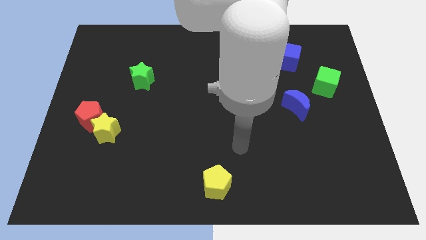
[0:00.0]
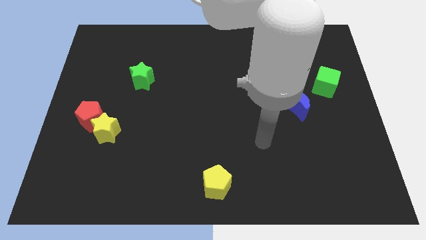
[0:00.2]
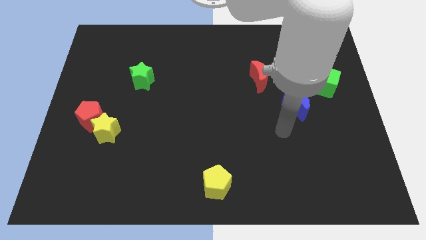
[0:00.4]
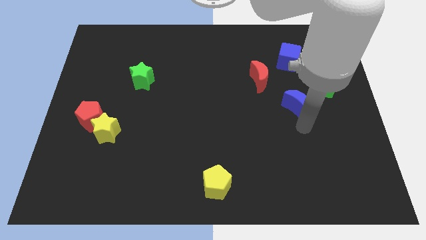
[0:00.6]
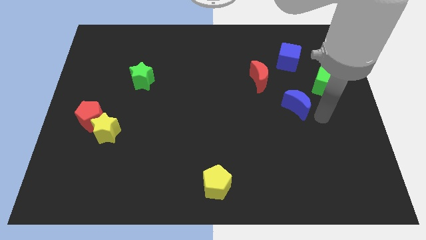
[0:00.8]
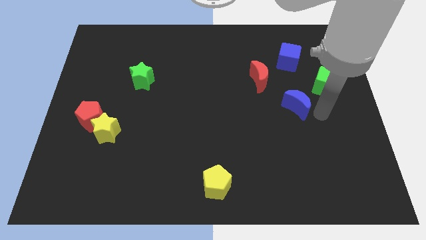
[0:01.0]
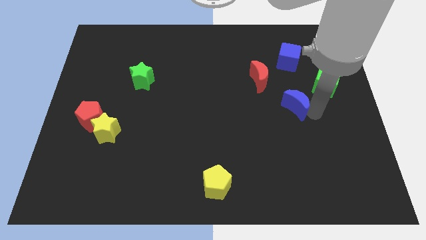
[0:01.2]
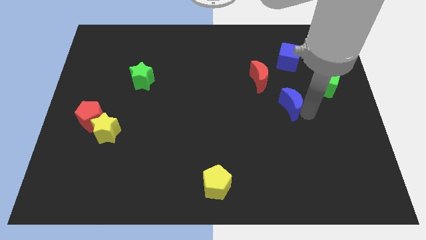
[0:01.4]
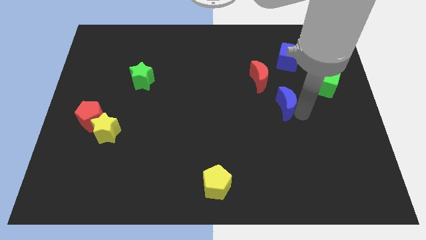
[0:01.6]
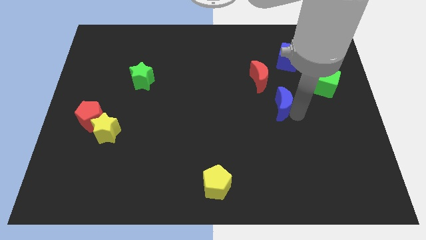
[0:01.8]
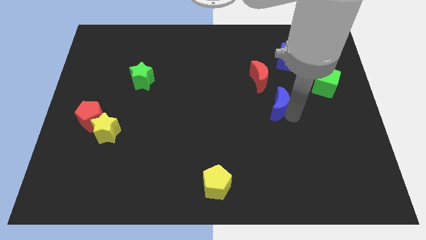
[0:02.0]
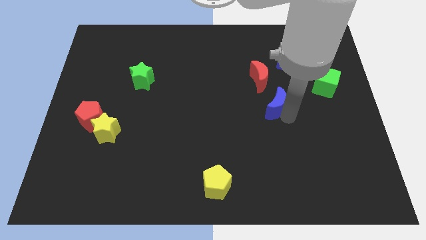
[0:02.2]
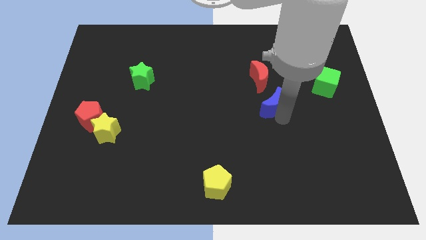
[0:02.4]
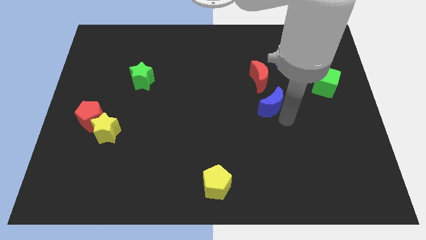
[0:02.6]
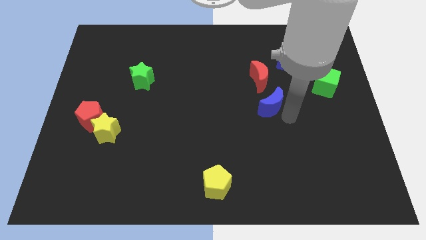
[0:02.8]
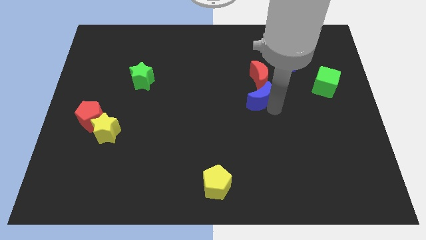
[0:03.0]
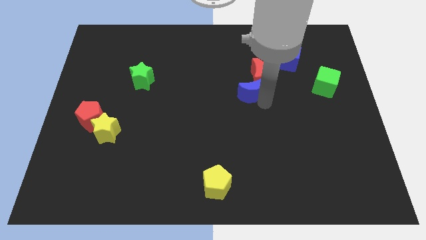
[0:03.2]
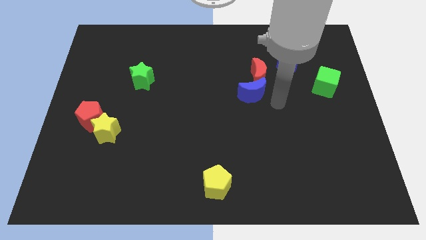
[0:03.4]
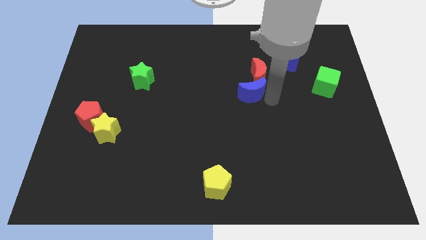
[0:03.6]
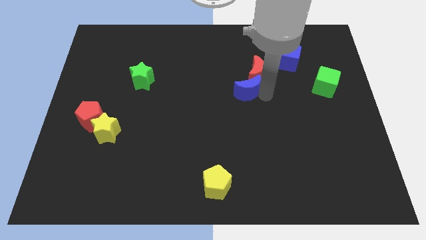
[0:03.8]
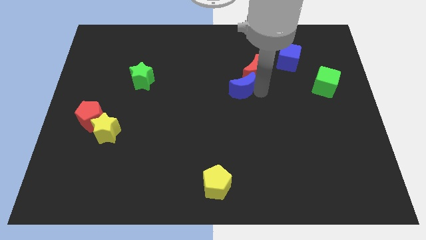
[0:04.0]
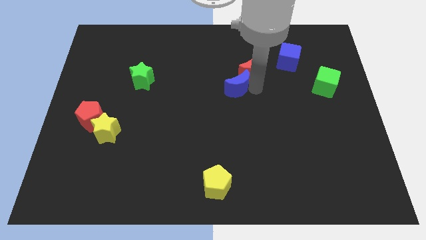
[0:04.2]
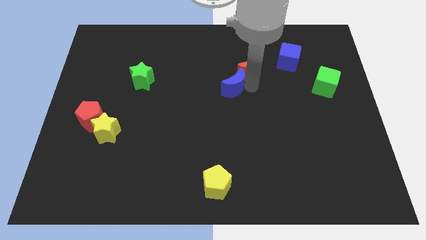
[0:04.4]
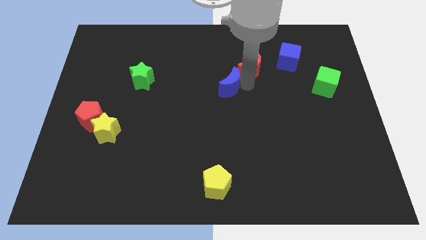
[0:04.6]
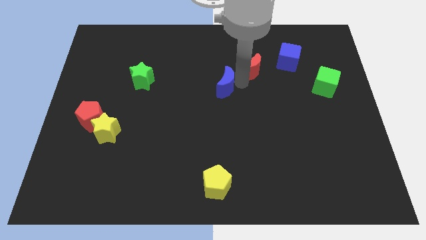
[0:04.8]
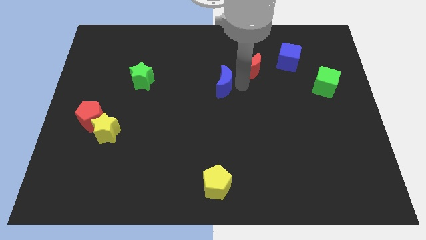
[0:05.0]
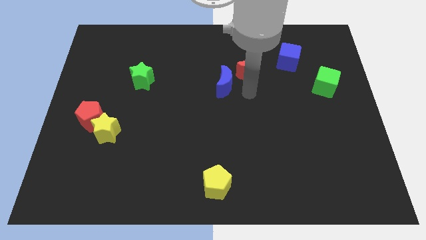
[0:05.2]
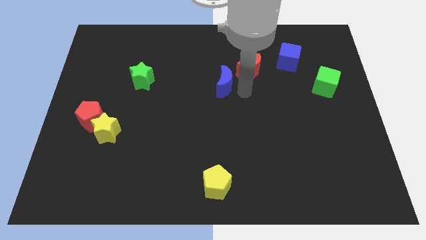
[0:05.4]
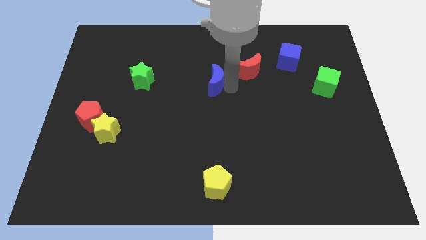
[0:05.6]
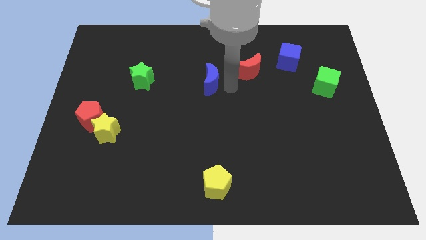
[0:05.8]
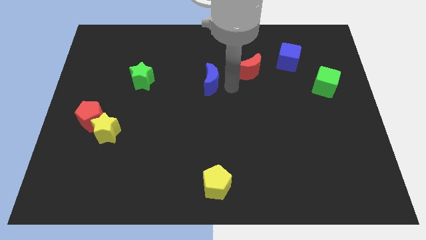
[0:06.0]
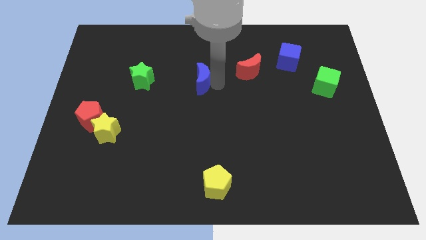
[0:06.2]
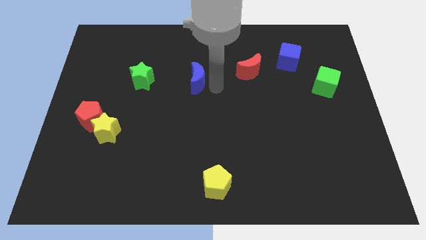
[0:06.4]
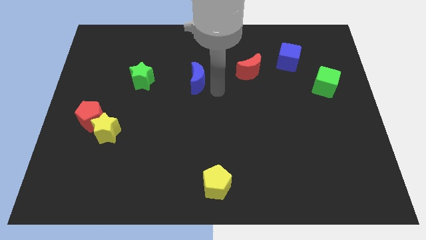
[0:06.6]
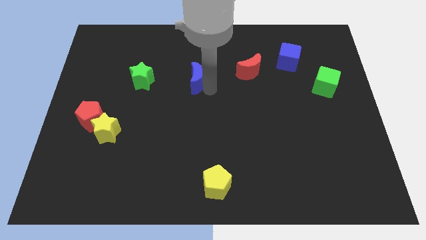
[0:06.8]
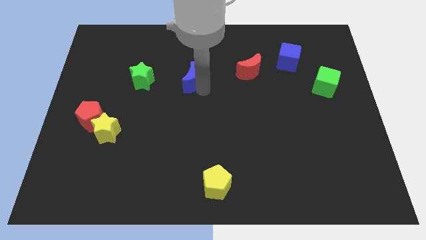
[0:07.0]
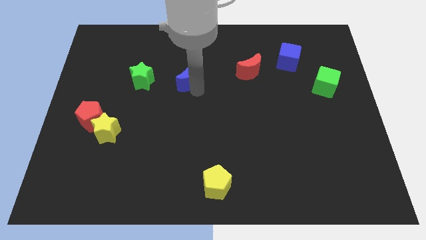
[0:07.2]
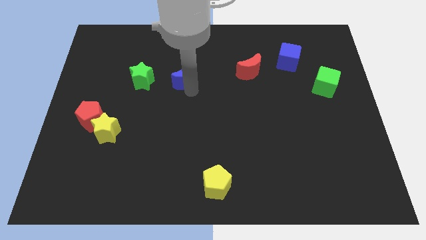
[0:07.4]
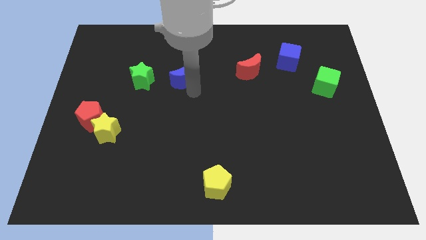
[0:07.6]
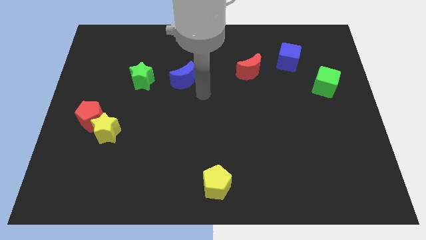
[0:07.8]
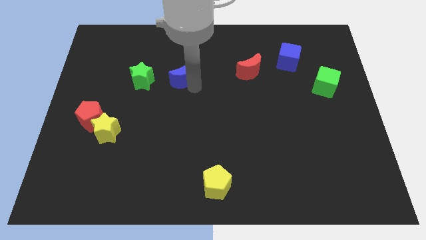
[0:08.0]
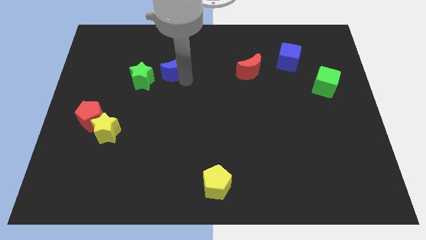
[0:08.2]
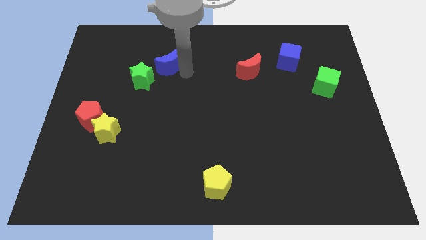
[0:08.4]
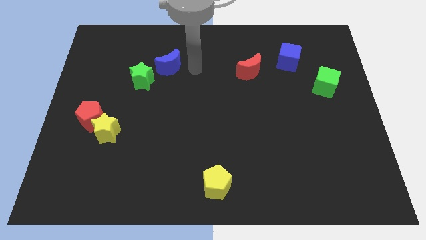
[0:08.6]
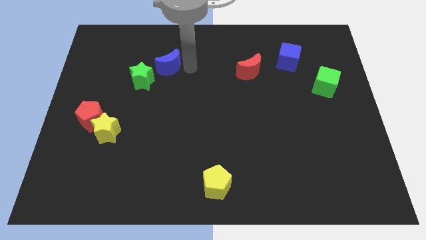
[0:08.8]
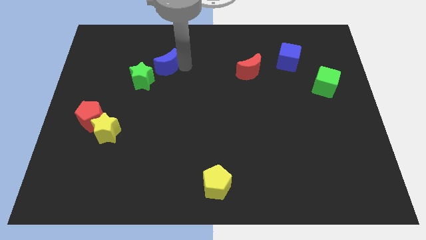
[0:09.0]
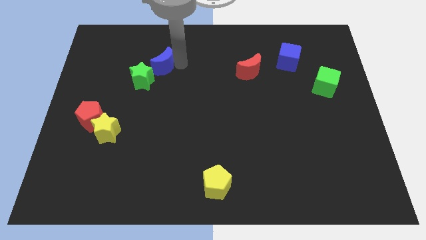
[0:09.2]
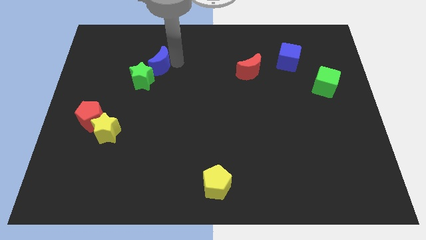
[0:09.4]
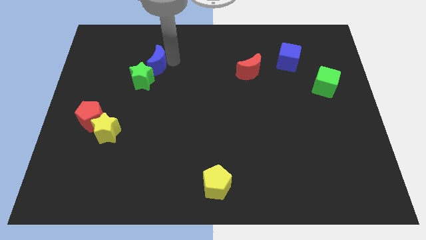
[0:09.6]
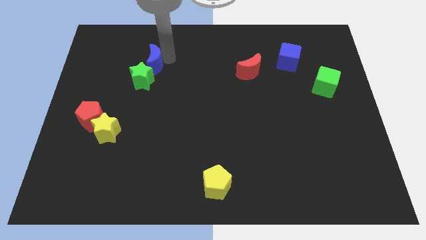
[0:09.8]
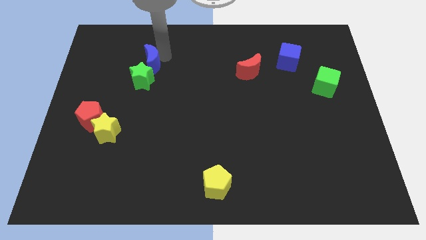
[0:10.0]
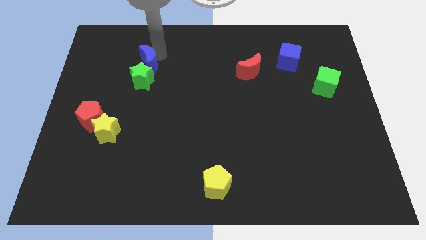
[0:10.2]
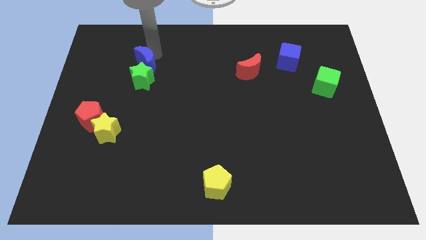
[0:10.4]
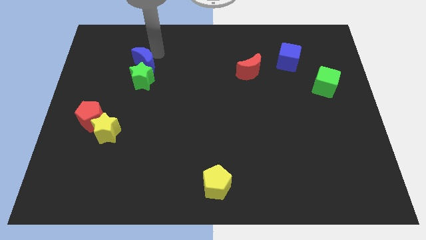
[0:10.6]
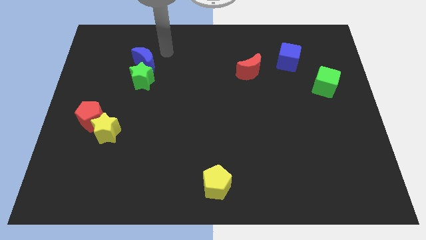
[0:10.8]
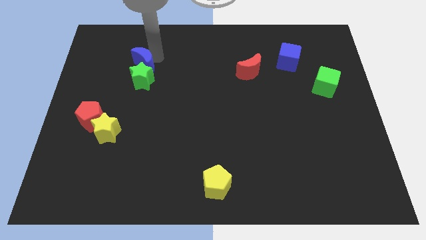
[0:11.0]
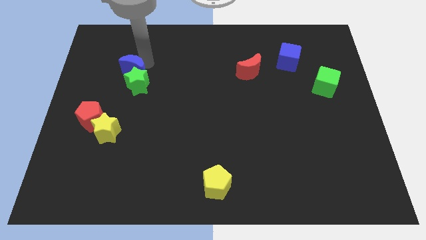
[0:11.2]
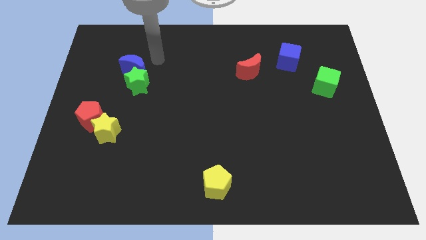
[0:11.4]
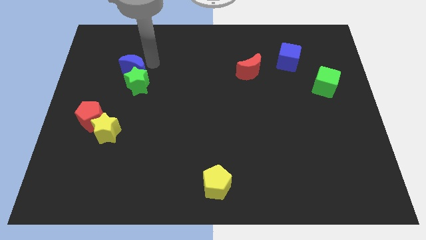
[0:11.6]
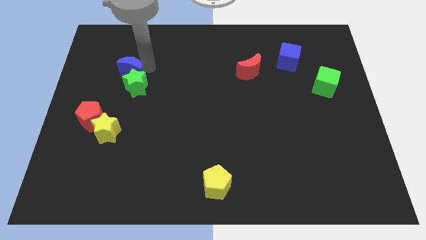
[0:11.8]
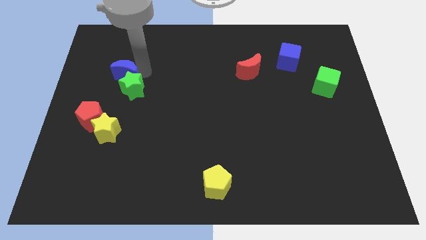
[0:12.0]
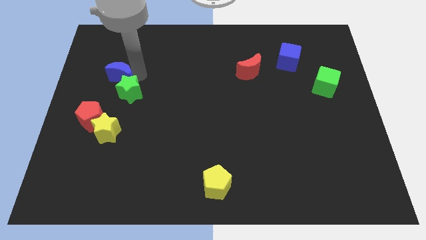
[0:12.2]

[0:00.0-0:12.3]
slide the blue moon to the top side of the red pentagon

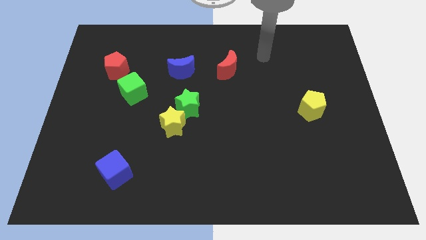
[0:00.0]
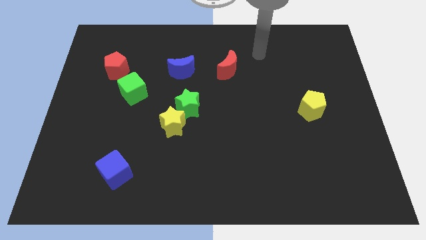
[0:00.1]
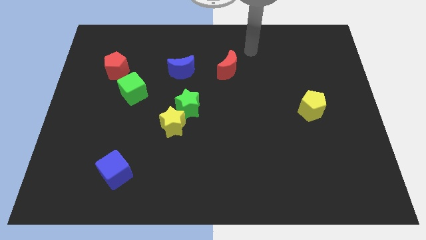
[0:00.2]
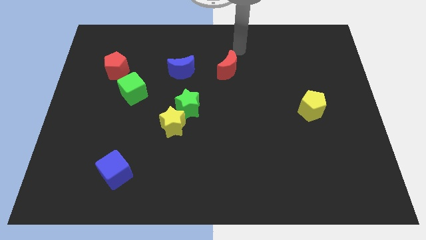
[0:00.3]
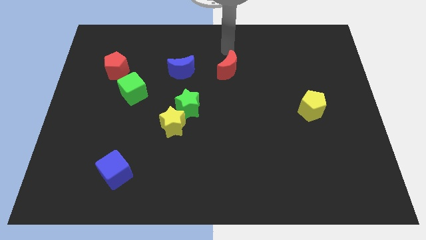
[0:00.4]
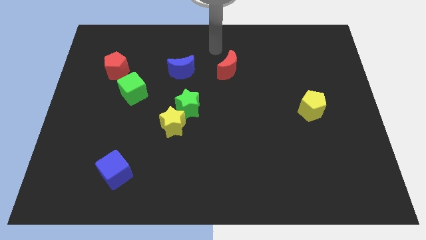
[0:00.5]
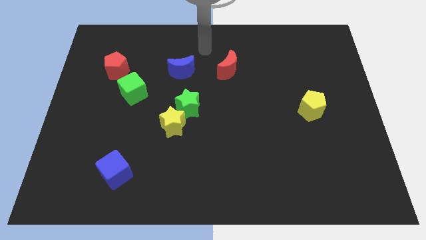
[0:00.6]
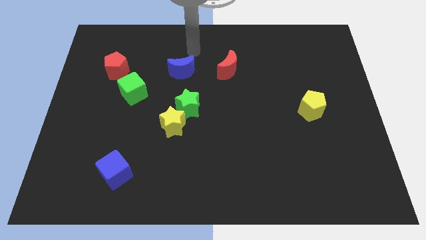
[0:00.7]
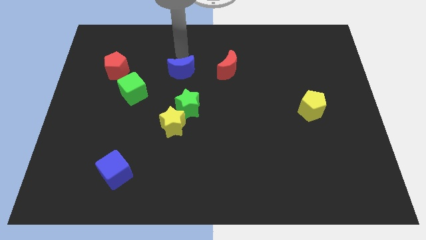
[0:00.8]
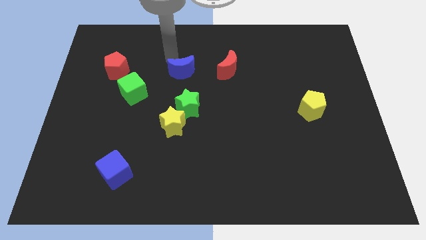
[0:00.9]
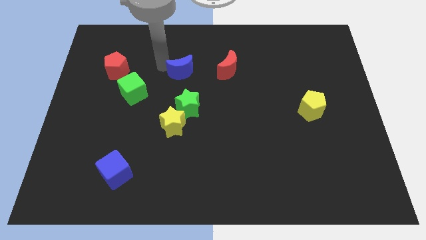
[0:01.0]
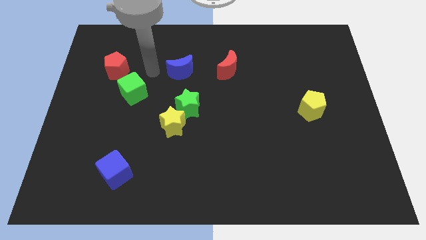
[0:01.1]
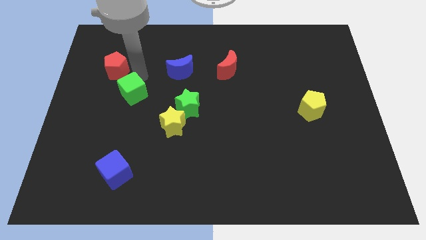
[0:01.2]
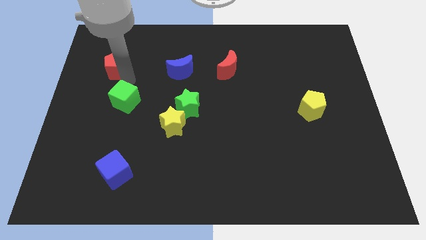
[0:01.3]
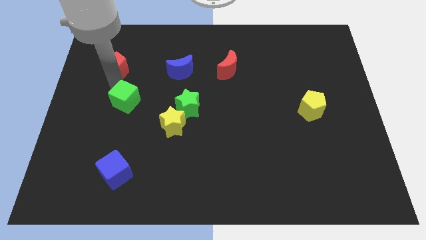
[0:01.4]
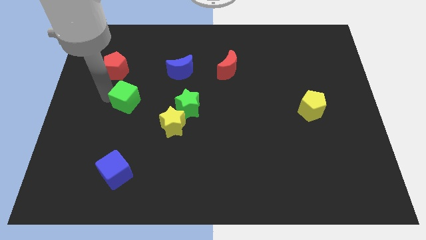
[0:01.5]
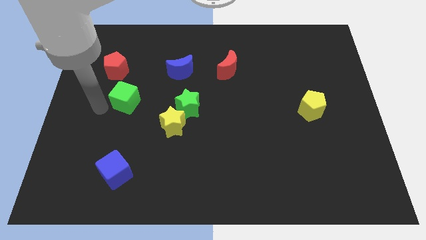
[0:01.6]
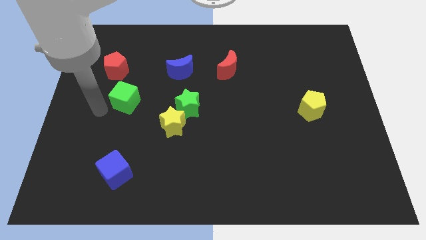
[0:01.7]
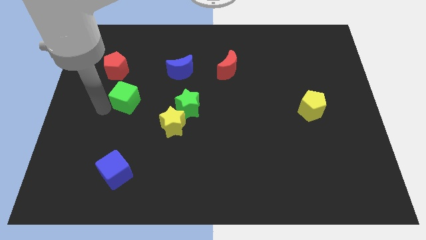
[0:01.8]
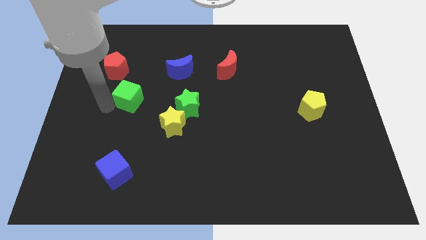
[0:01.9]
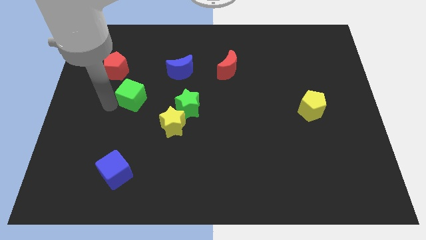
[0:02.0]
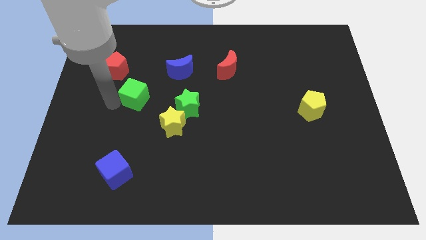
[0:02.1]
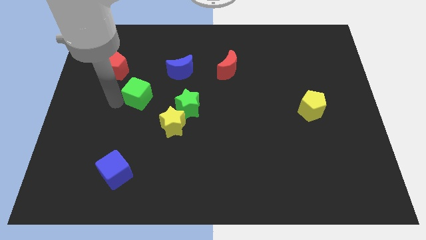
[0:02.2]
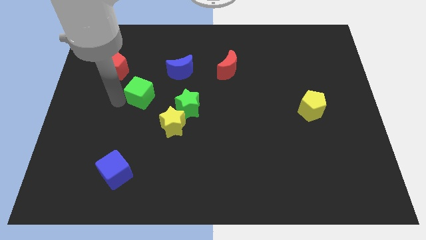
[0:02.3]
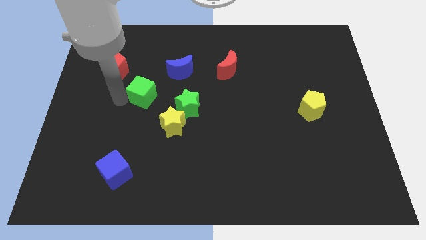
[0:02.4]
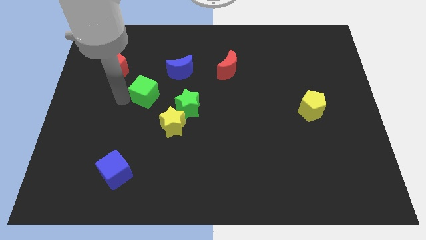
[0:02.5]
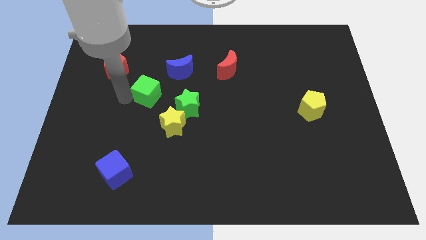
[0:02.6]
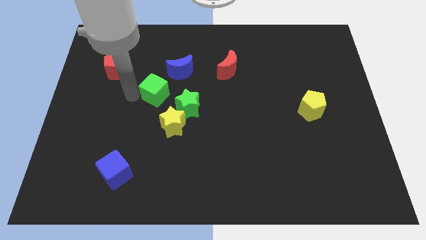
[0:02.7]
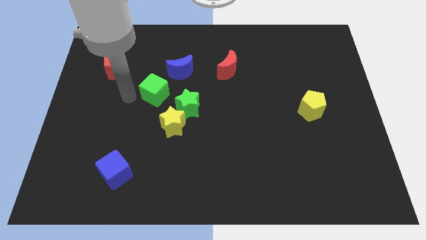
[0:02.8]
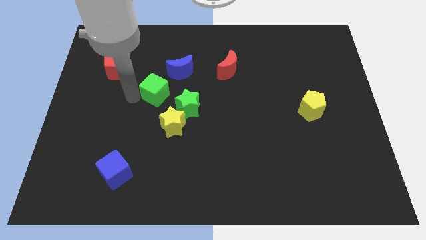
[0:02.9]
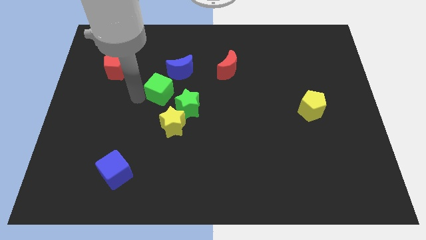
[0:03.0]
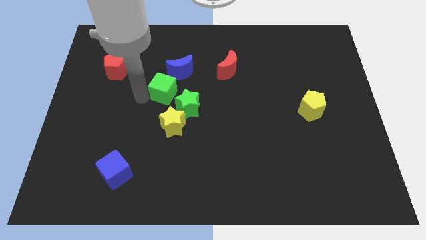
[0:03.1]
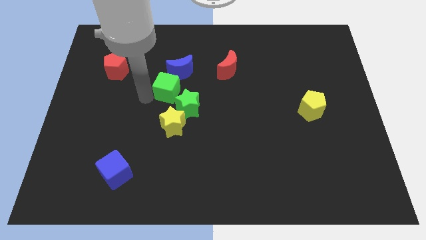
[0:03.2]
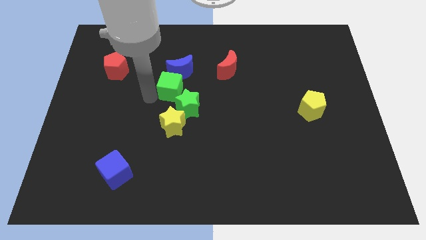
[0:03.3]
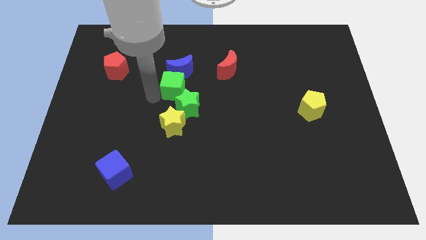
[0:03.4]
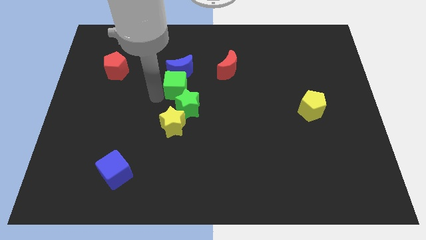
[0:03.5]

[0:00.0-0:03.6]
put the green cube to the bottom right of the blue moon
